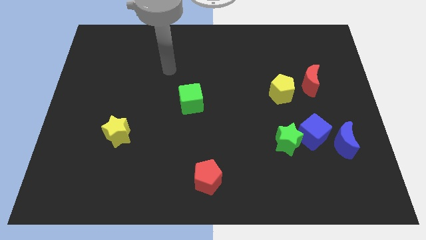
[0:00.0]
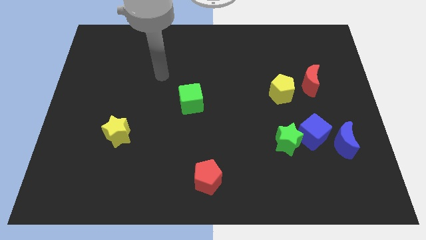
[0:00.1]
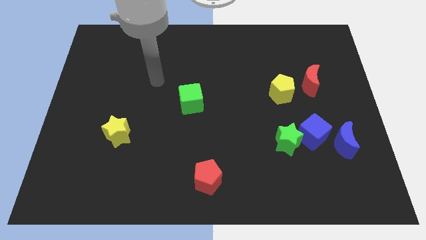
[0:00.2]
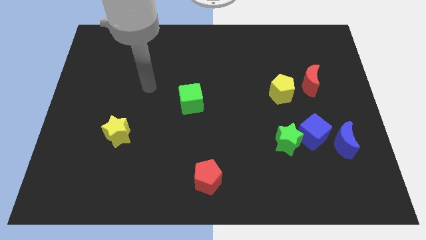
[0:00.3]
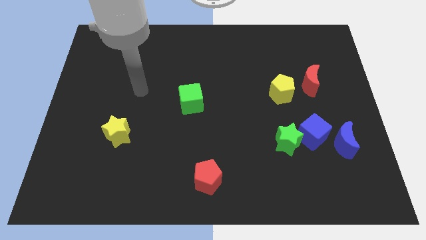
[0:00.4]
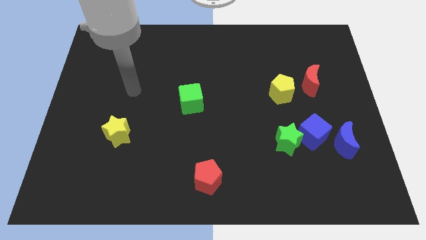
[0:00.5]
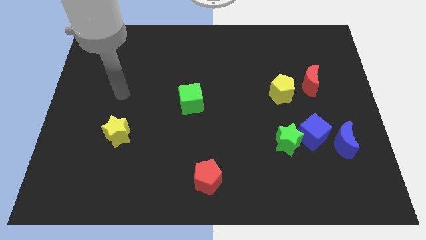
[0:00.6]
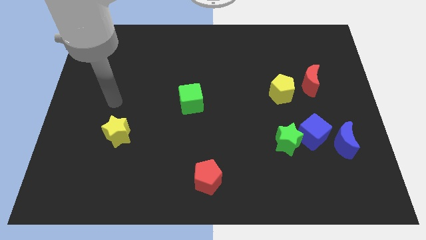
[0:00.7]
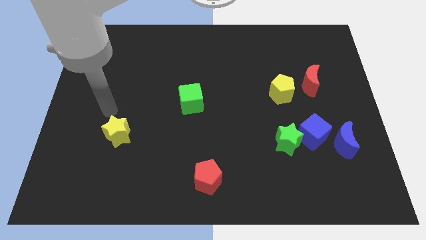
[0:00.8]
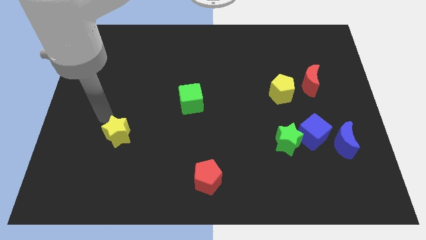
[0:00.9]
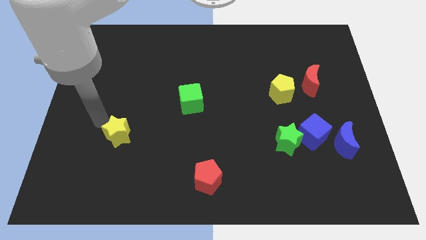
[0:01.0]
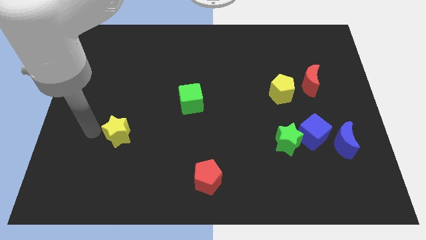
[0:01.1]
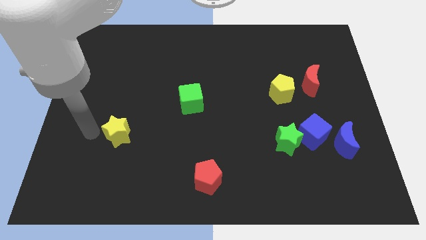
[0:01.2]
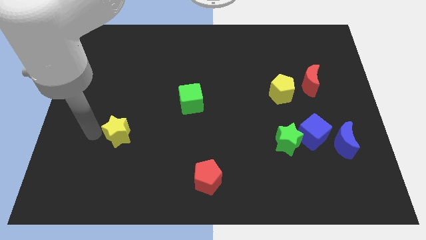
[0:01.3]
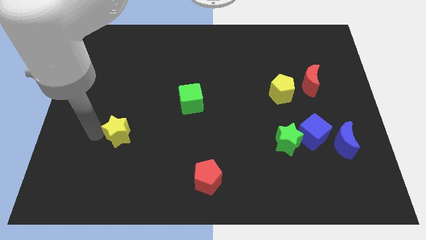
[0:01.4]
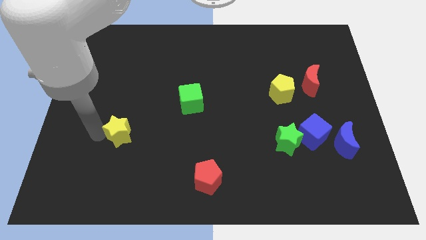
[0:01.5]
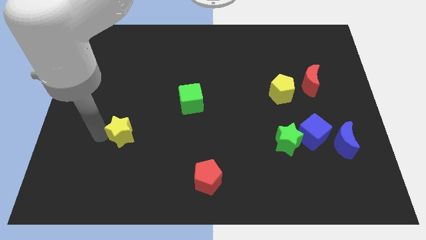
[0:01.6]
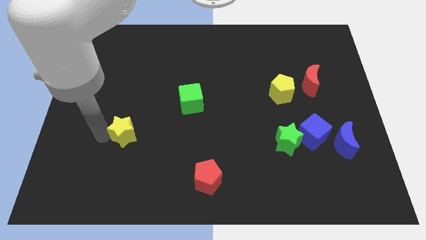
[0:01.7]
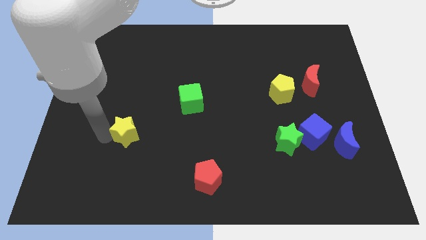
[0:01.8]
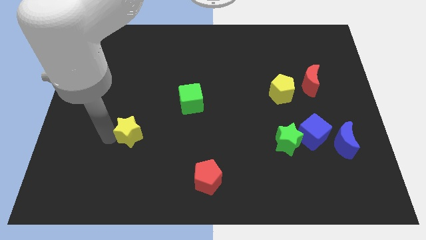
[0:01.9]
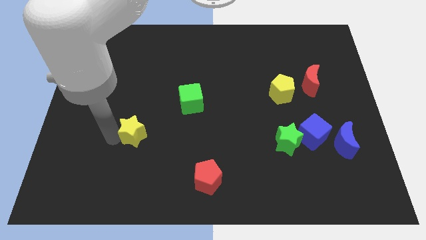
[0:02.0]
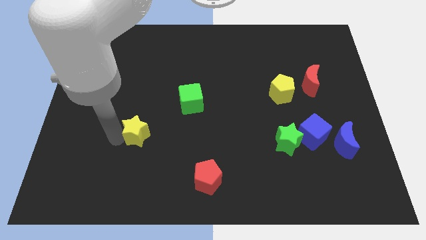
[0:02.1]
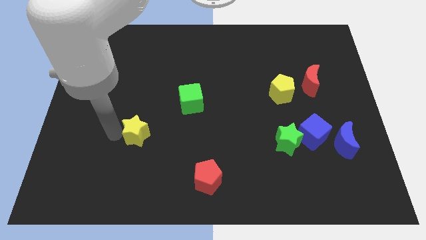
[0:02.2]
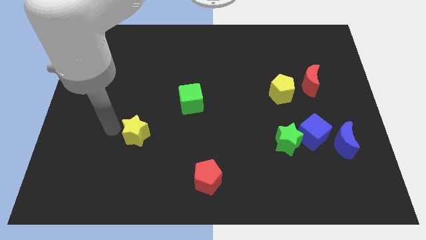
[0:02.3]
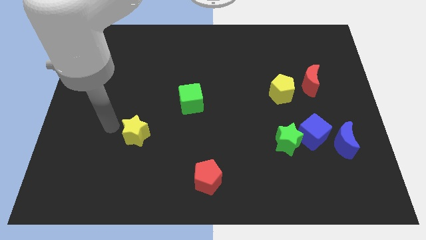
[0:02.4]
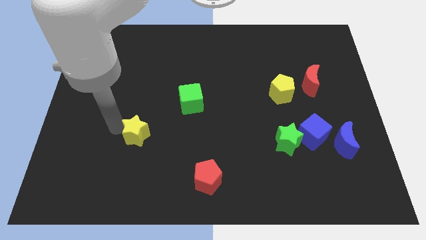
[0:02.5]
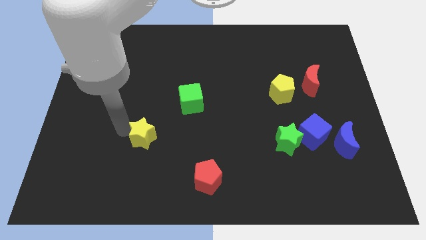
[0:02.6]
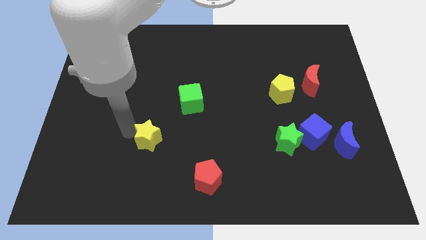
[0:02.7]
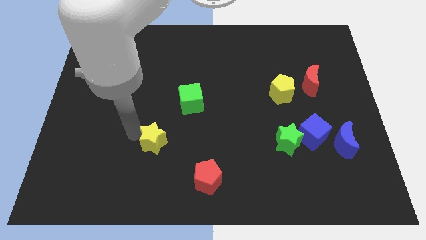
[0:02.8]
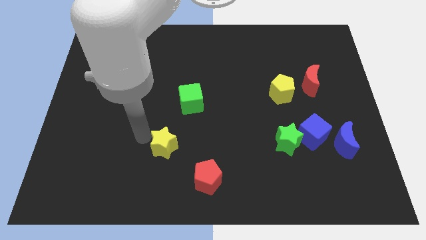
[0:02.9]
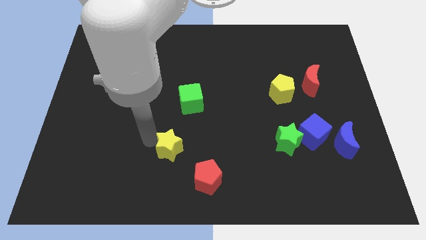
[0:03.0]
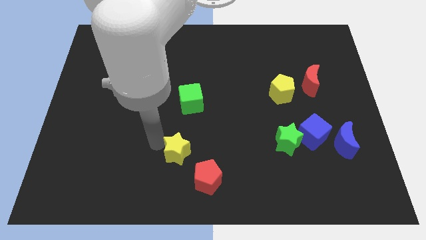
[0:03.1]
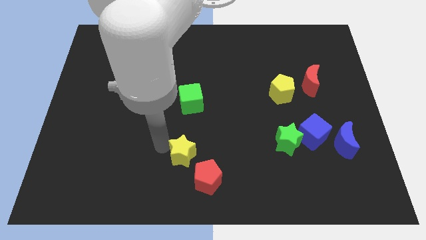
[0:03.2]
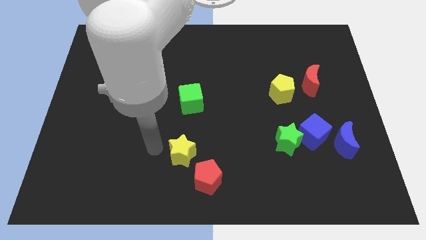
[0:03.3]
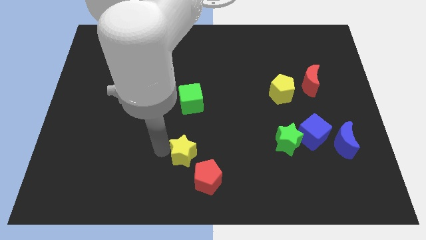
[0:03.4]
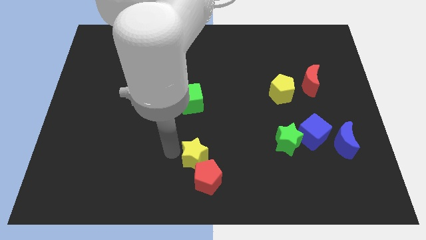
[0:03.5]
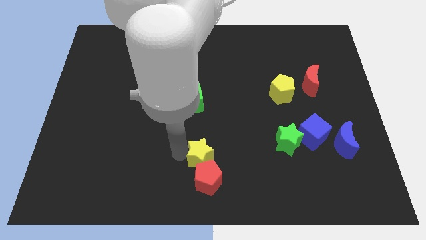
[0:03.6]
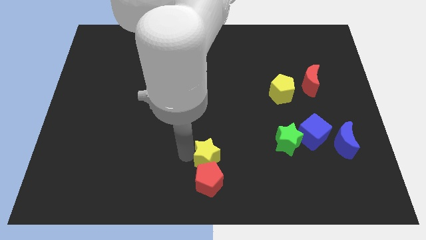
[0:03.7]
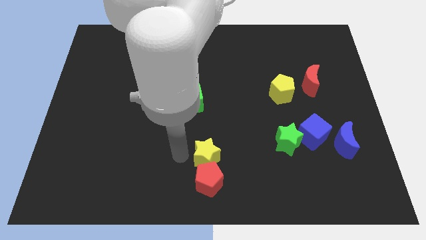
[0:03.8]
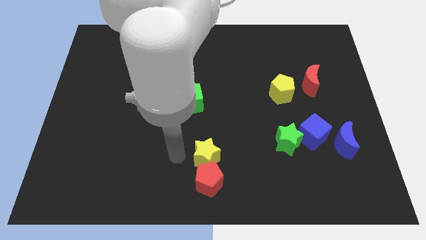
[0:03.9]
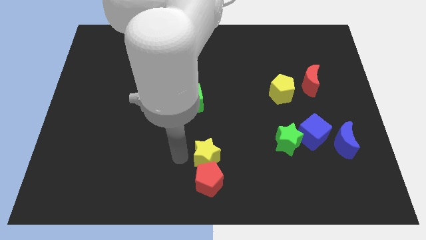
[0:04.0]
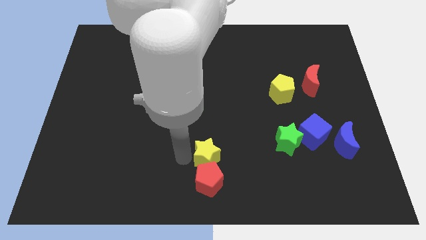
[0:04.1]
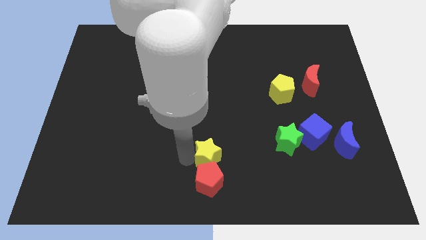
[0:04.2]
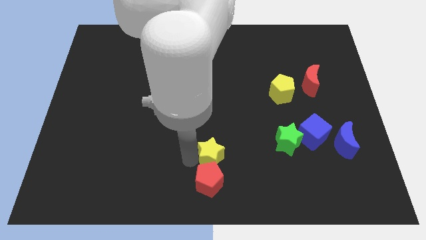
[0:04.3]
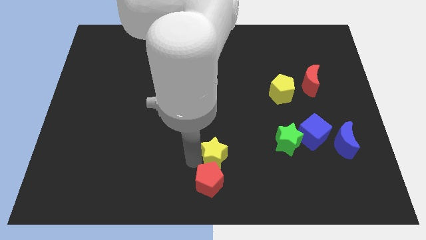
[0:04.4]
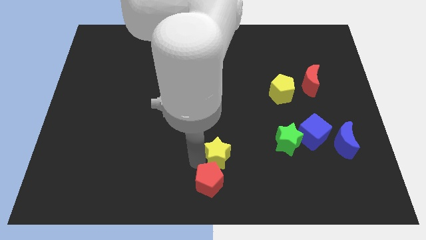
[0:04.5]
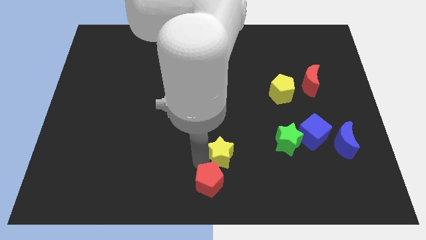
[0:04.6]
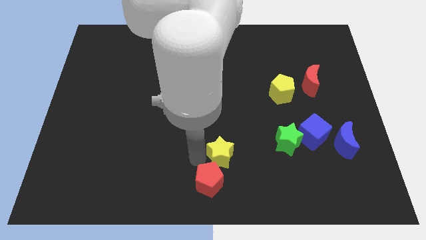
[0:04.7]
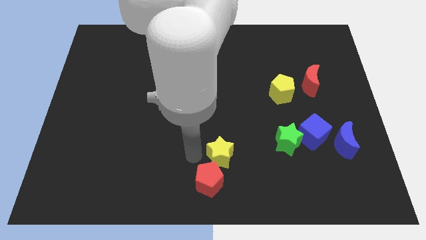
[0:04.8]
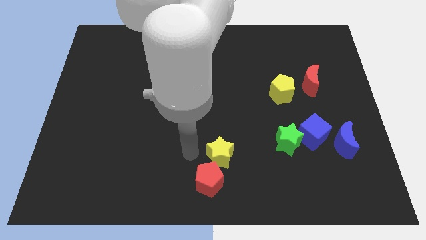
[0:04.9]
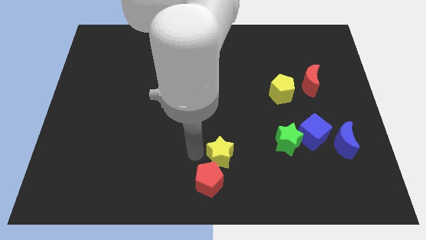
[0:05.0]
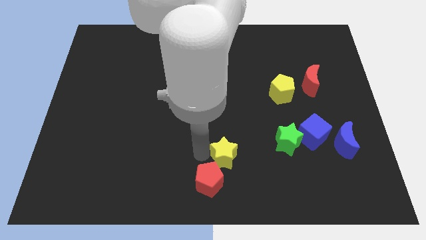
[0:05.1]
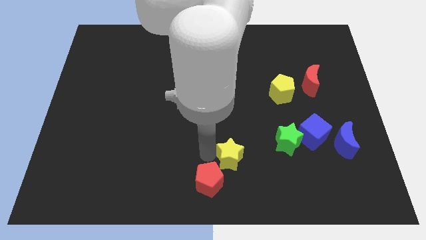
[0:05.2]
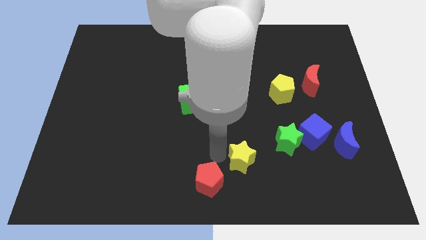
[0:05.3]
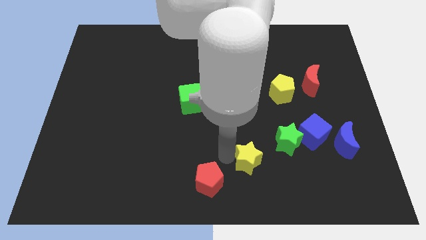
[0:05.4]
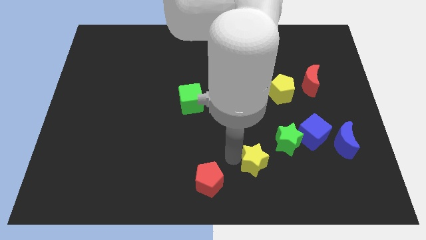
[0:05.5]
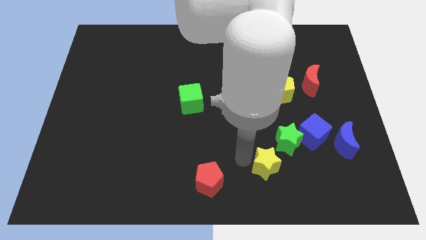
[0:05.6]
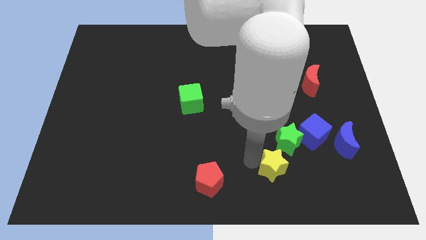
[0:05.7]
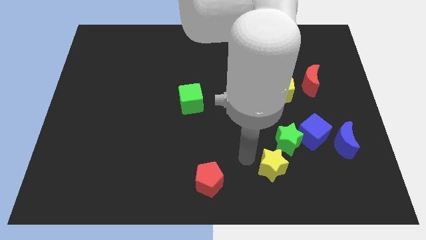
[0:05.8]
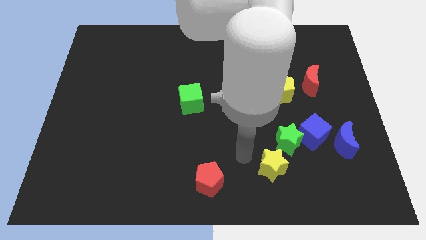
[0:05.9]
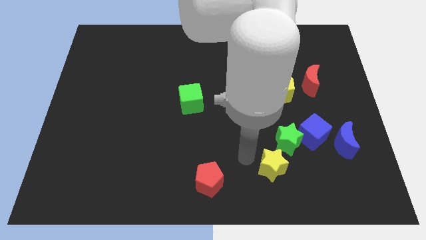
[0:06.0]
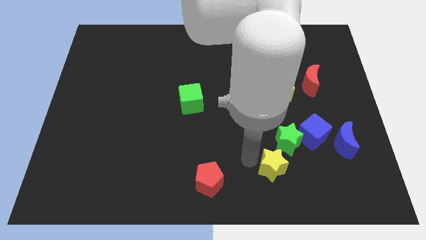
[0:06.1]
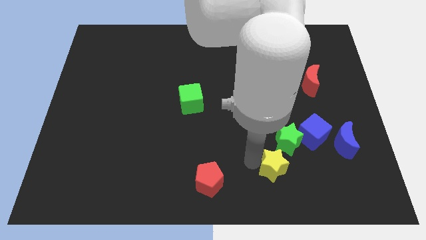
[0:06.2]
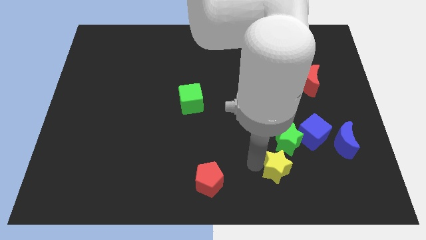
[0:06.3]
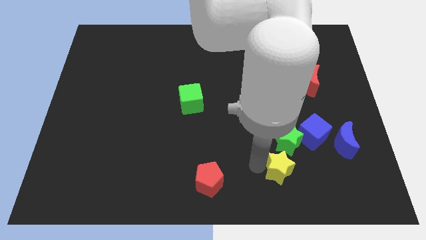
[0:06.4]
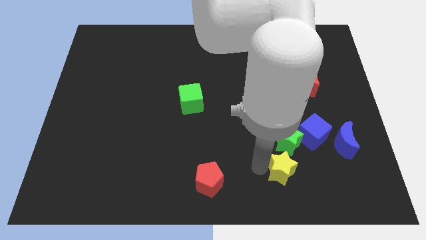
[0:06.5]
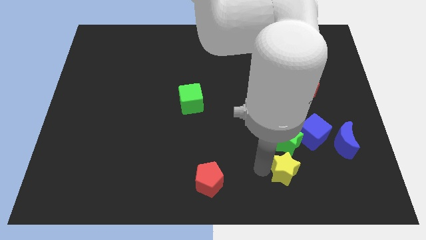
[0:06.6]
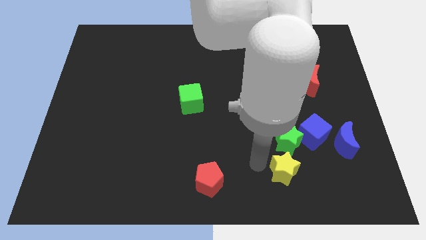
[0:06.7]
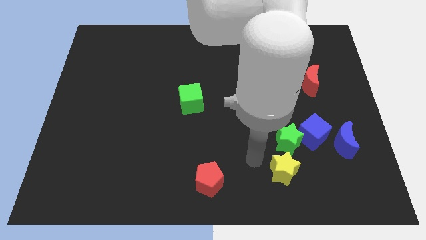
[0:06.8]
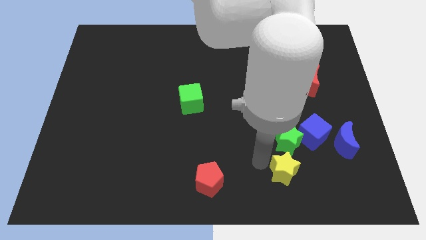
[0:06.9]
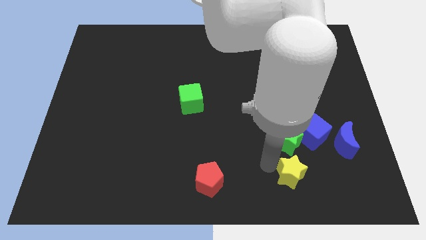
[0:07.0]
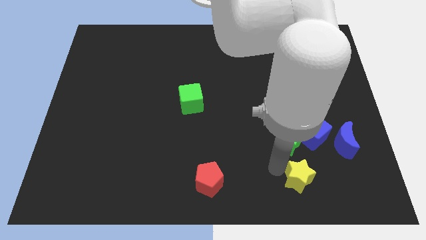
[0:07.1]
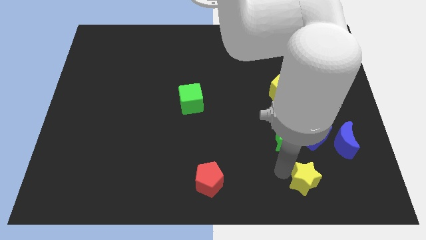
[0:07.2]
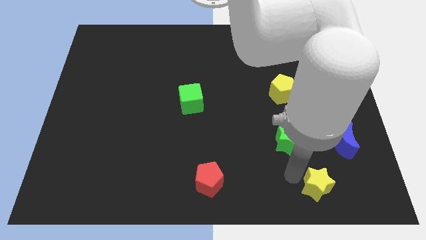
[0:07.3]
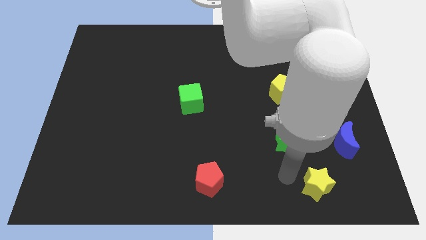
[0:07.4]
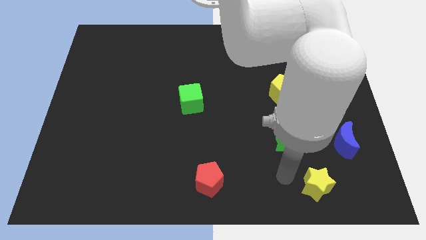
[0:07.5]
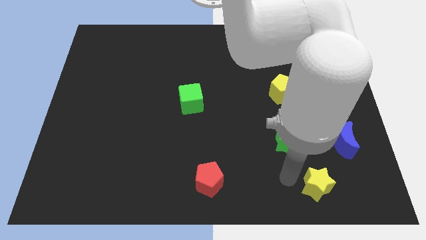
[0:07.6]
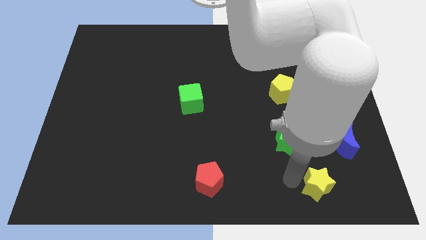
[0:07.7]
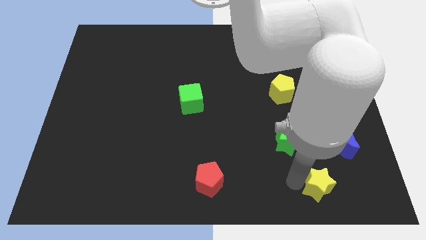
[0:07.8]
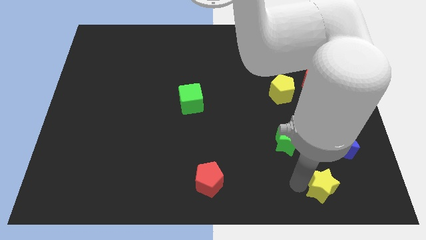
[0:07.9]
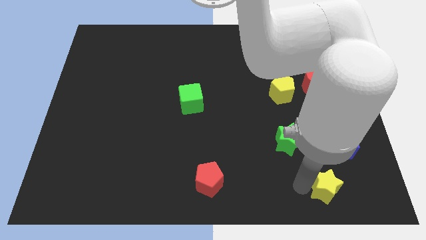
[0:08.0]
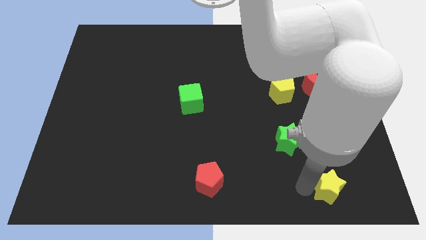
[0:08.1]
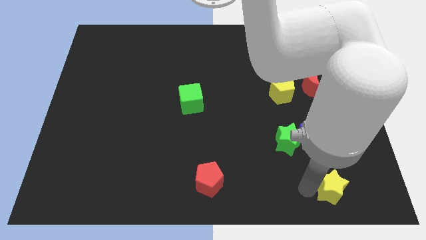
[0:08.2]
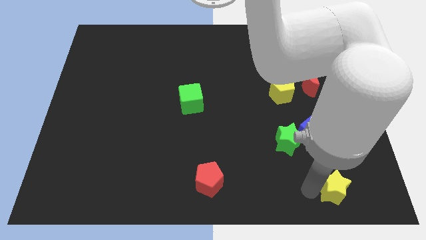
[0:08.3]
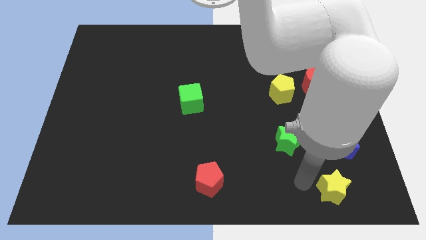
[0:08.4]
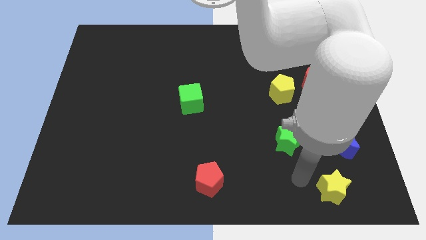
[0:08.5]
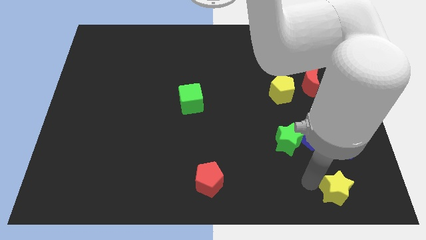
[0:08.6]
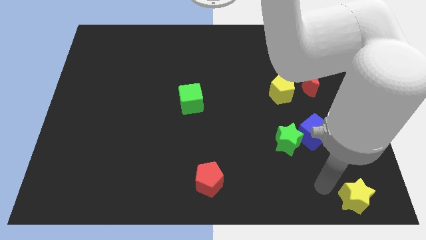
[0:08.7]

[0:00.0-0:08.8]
put the yellow star to the lower right corner
